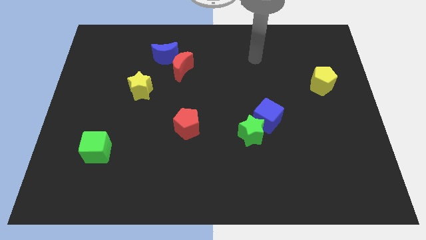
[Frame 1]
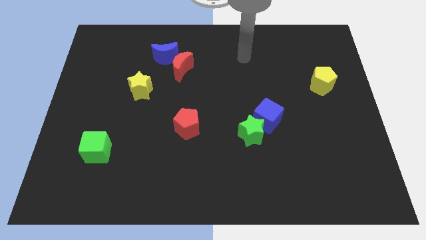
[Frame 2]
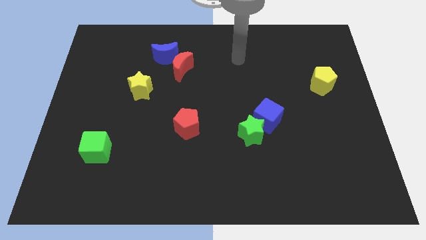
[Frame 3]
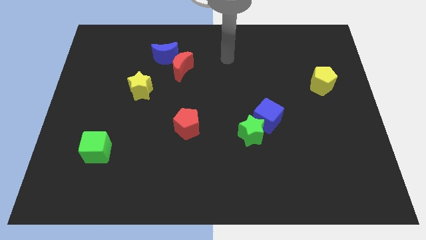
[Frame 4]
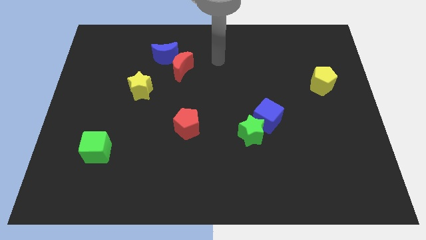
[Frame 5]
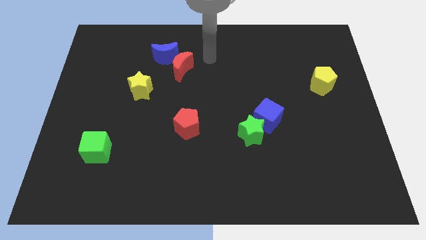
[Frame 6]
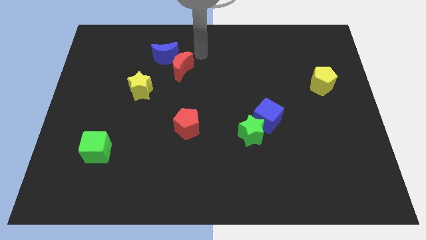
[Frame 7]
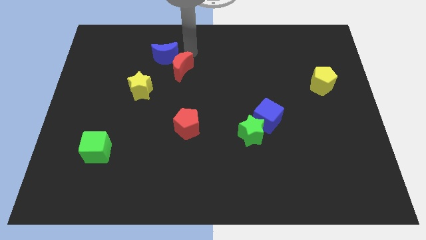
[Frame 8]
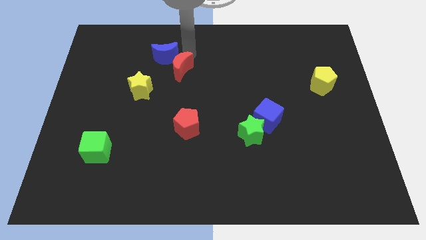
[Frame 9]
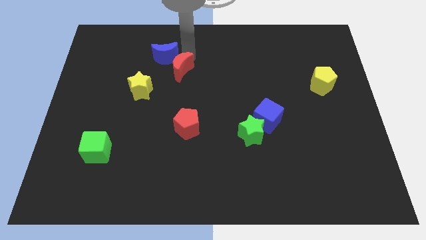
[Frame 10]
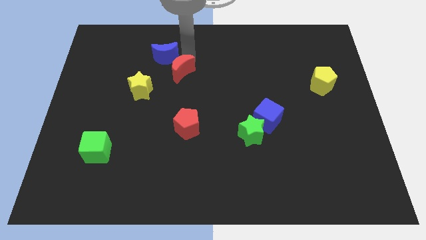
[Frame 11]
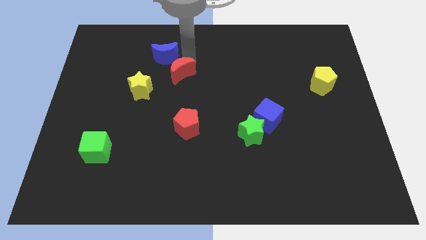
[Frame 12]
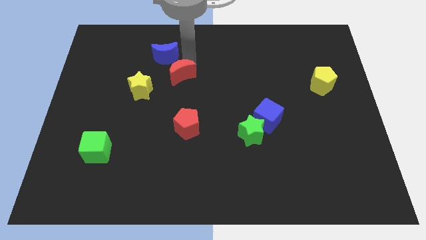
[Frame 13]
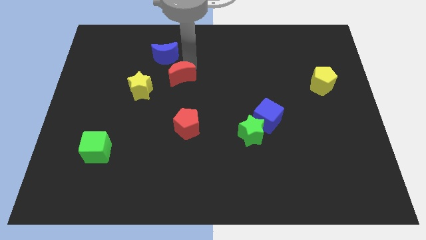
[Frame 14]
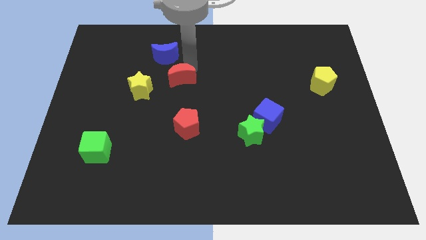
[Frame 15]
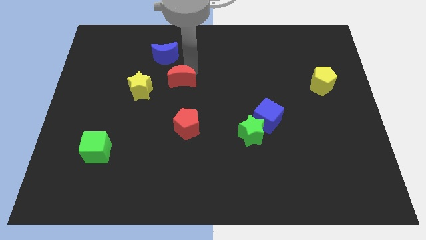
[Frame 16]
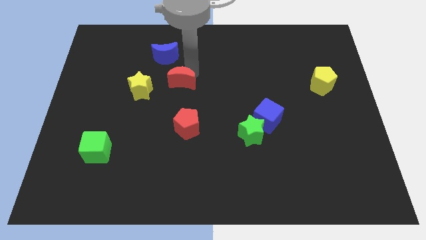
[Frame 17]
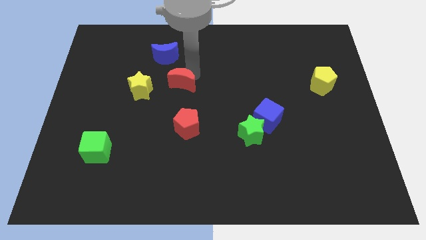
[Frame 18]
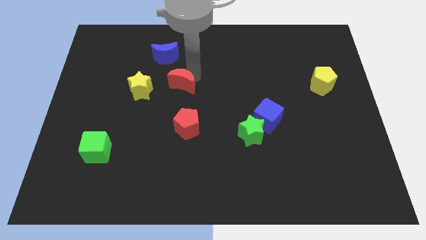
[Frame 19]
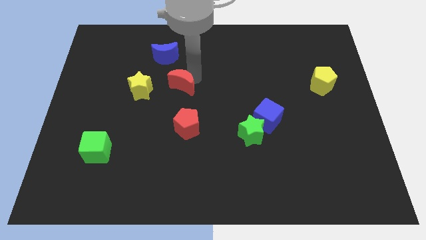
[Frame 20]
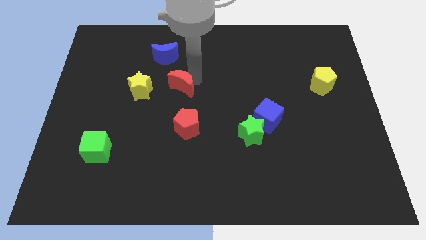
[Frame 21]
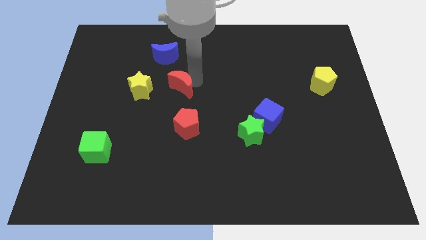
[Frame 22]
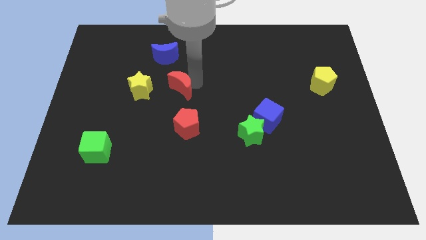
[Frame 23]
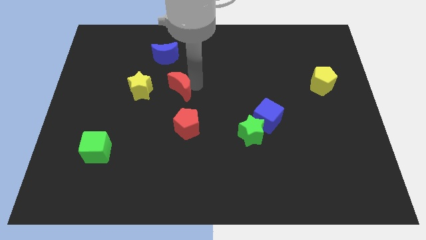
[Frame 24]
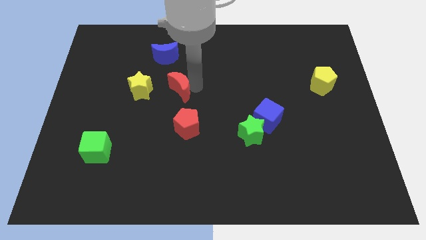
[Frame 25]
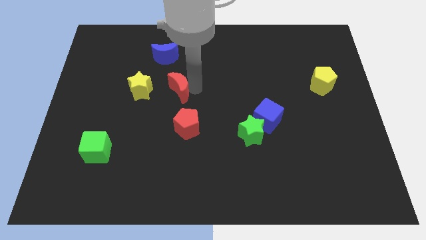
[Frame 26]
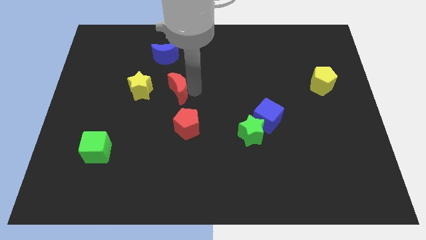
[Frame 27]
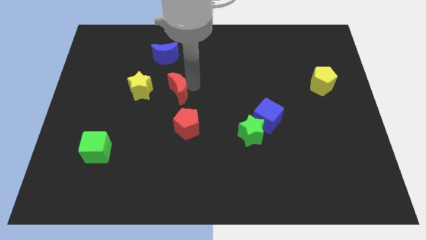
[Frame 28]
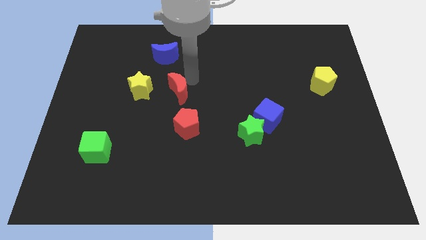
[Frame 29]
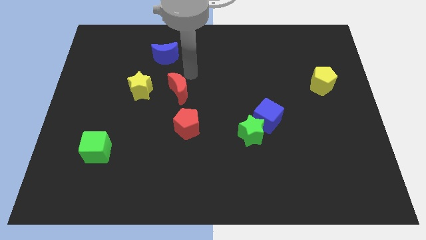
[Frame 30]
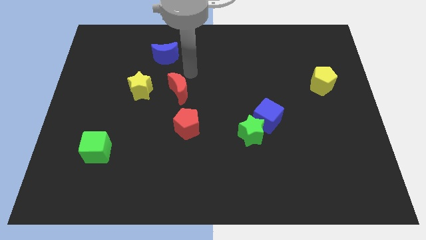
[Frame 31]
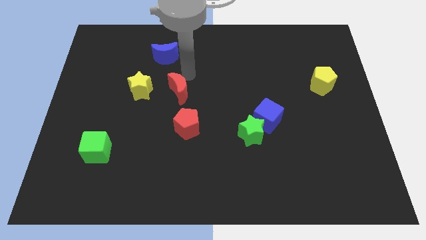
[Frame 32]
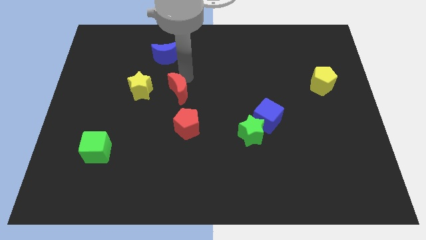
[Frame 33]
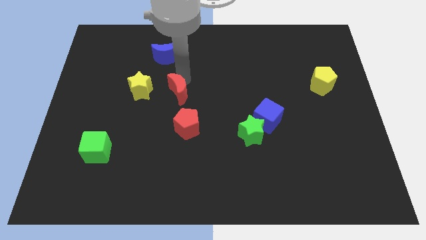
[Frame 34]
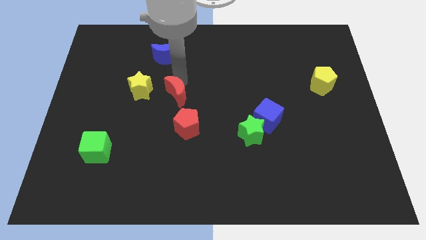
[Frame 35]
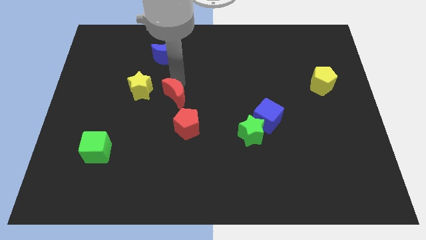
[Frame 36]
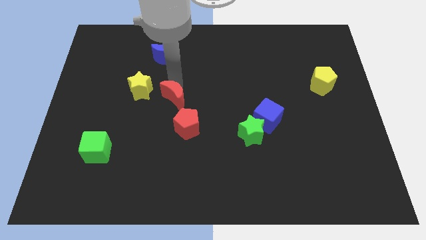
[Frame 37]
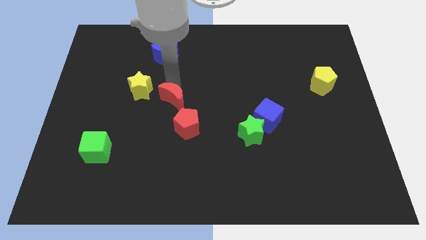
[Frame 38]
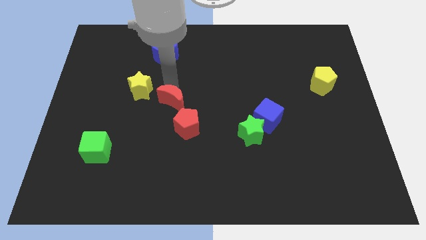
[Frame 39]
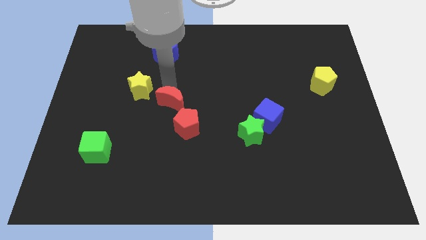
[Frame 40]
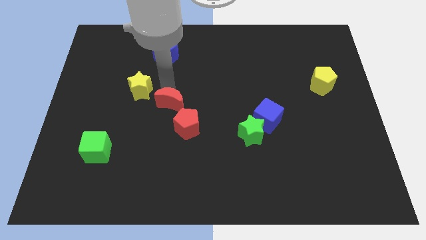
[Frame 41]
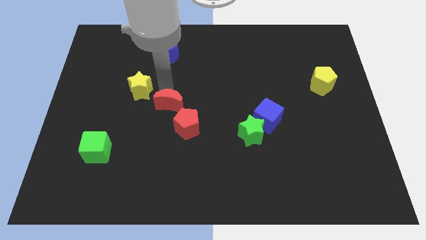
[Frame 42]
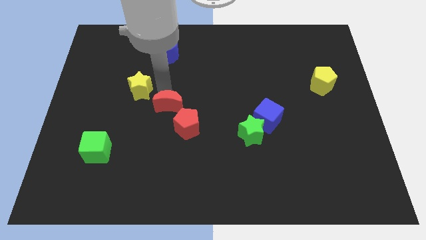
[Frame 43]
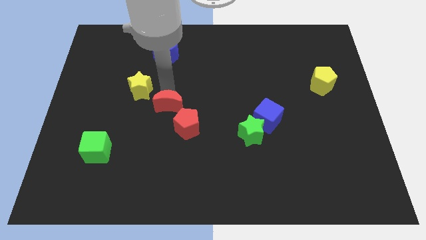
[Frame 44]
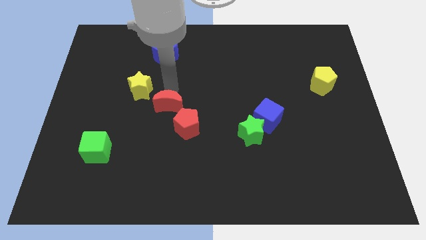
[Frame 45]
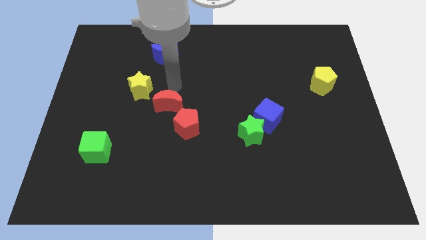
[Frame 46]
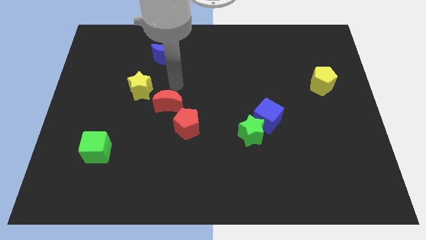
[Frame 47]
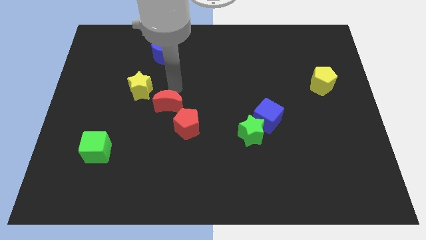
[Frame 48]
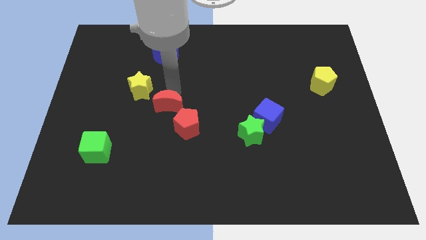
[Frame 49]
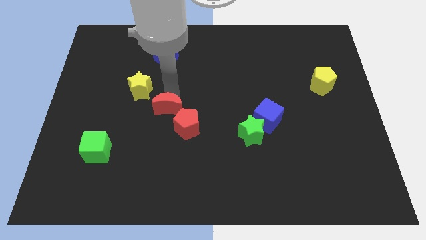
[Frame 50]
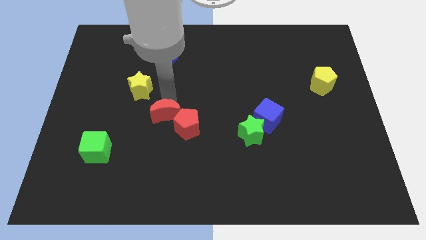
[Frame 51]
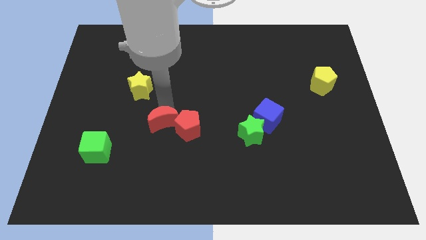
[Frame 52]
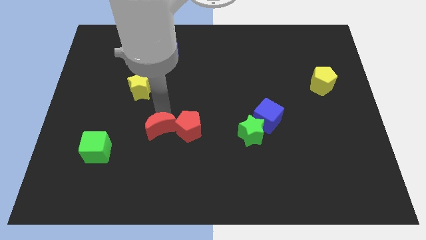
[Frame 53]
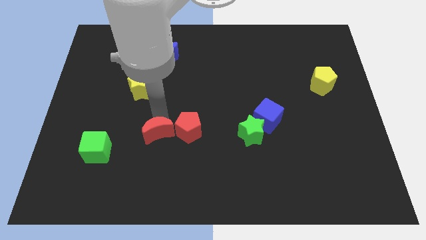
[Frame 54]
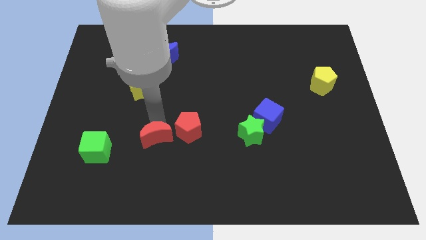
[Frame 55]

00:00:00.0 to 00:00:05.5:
move the red moon downwards

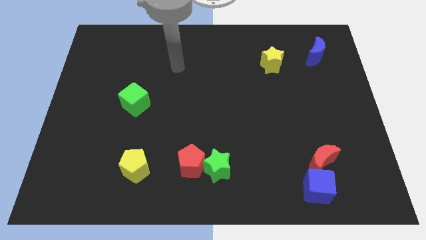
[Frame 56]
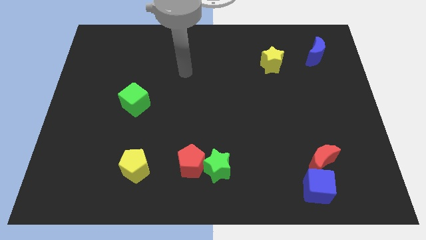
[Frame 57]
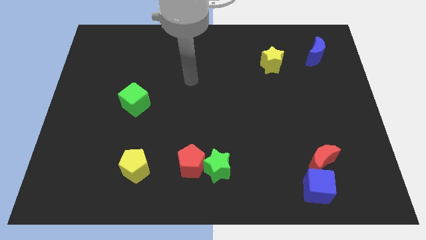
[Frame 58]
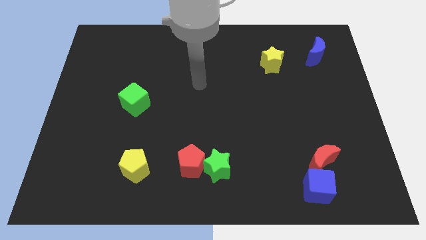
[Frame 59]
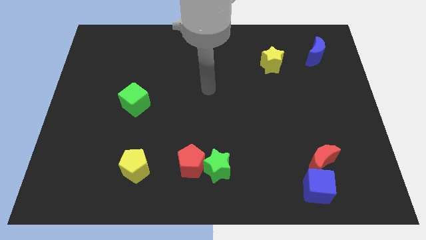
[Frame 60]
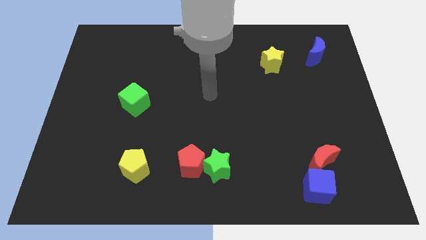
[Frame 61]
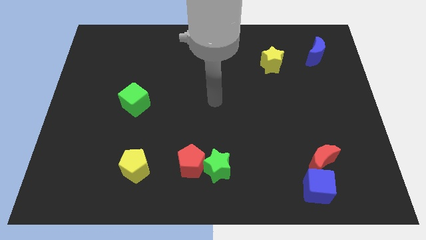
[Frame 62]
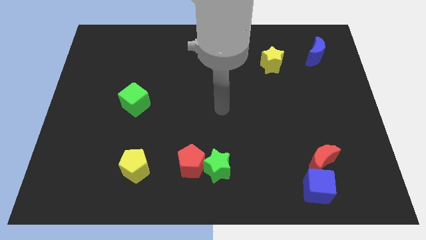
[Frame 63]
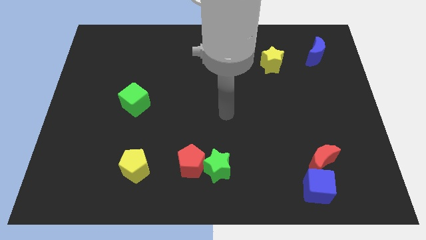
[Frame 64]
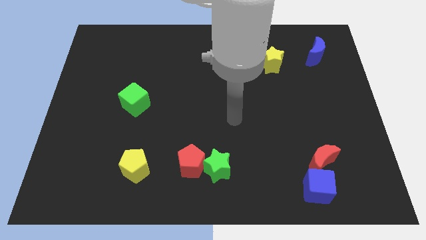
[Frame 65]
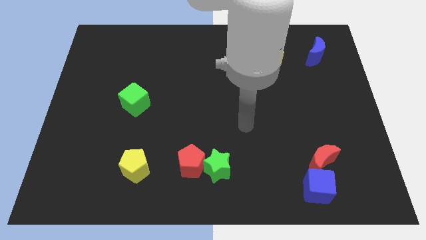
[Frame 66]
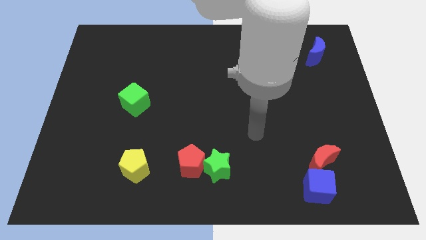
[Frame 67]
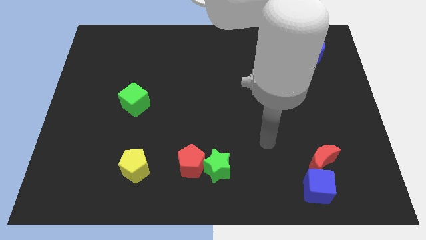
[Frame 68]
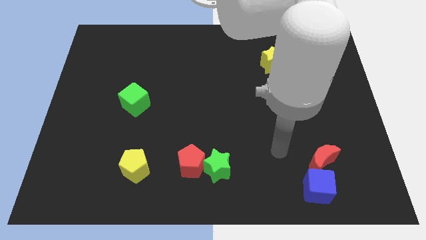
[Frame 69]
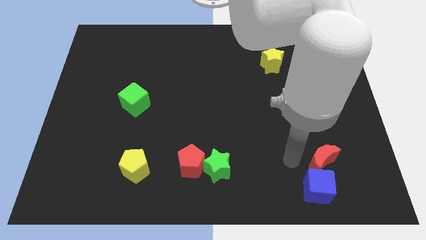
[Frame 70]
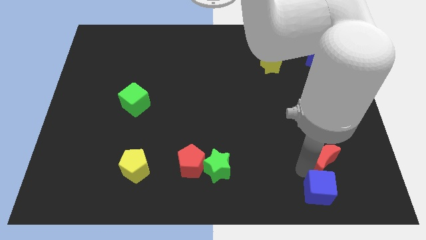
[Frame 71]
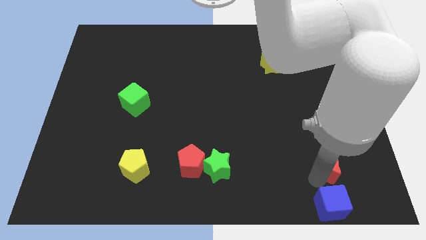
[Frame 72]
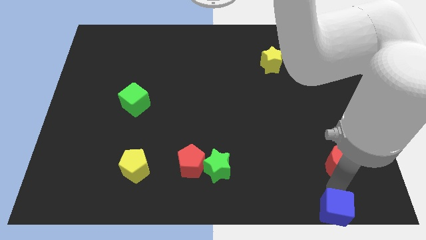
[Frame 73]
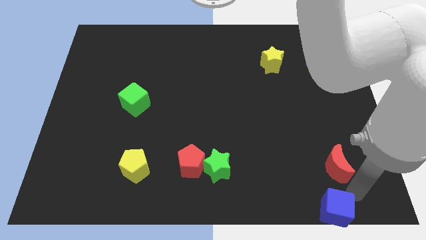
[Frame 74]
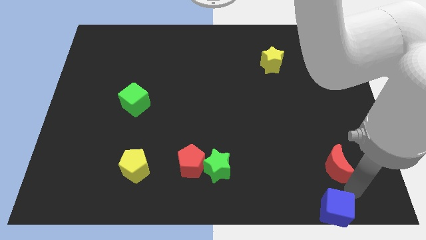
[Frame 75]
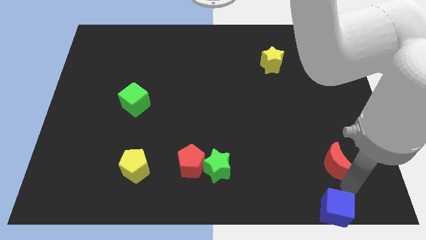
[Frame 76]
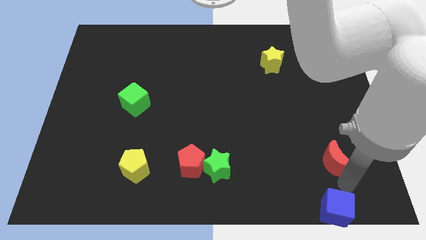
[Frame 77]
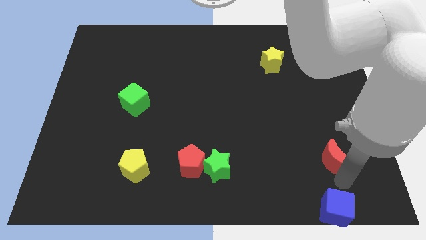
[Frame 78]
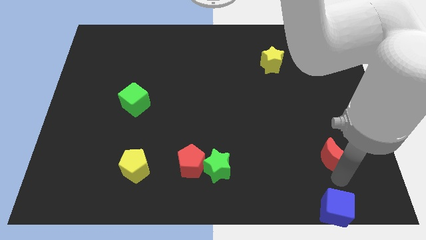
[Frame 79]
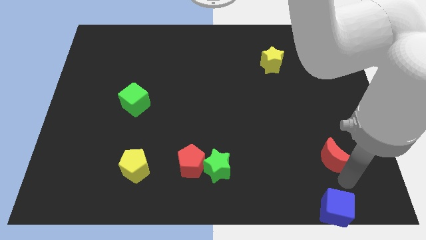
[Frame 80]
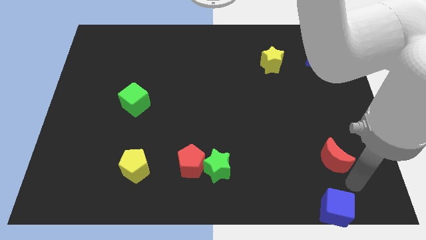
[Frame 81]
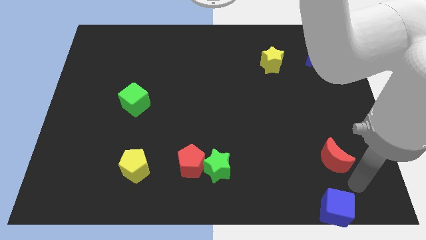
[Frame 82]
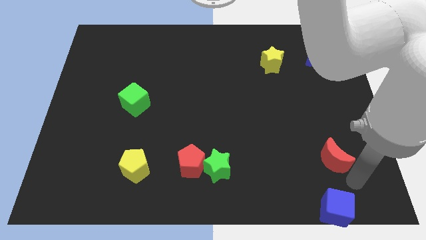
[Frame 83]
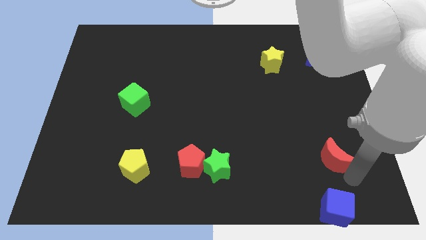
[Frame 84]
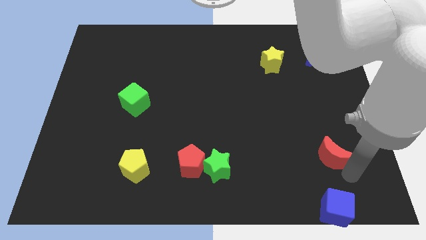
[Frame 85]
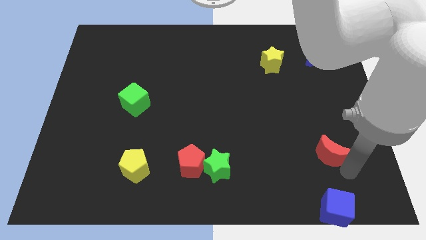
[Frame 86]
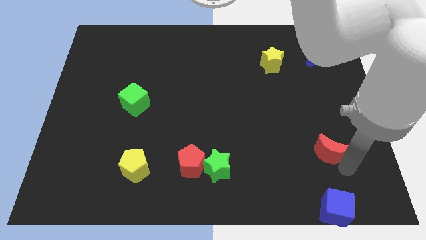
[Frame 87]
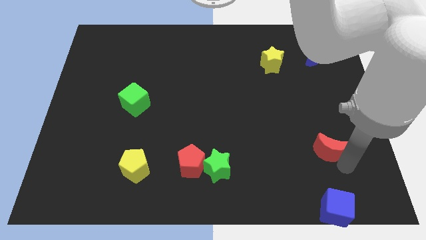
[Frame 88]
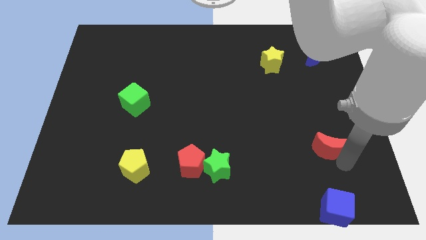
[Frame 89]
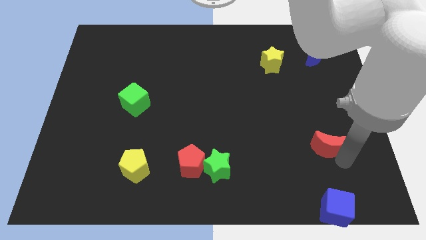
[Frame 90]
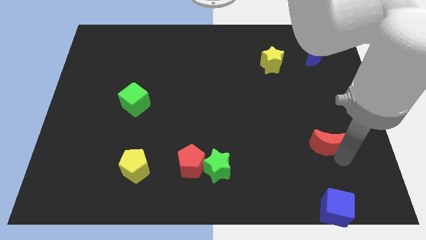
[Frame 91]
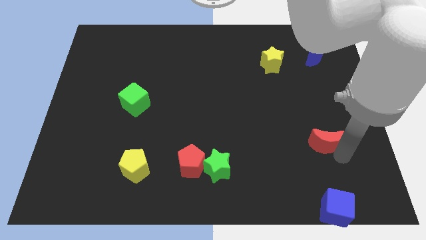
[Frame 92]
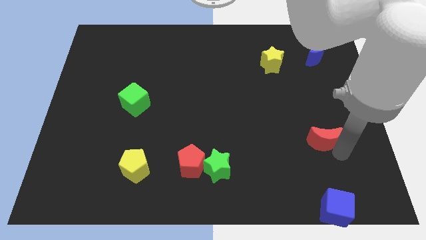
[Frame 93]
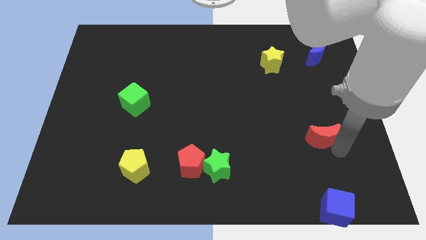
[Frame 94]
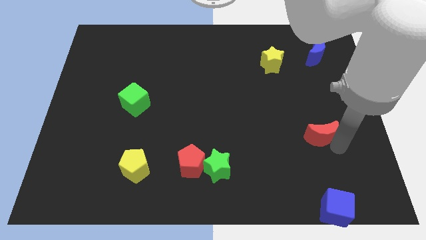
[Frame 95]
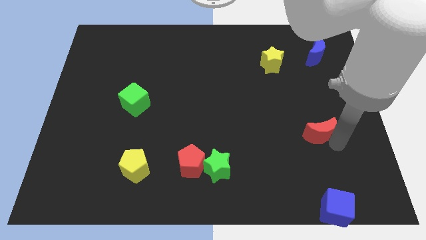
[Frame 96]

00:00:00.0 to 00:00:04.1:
move the red moon a little upwards
